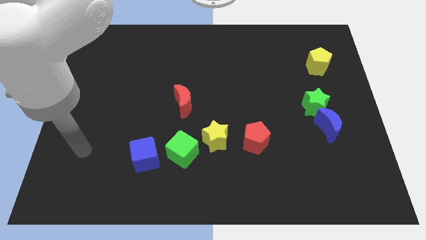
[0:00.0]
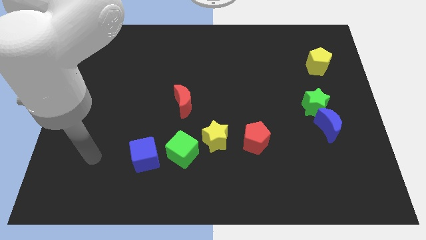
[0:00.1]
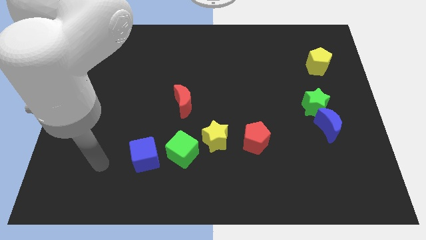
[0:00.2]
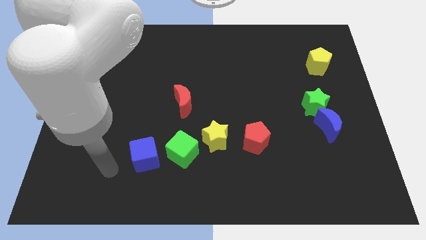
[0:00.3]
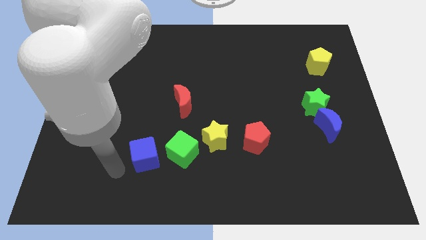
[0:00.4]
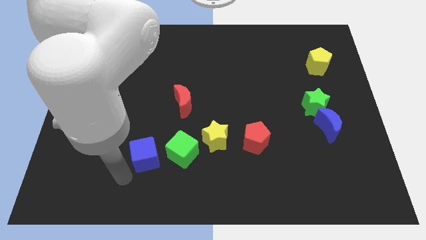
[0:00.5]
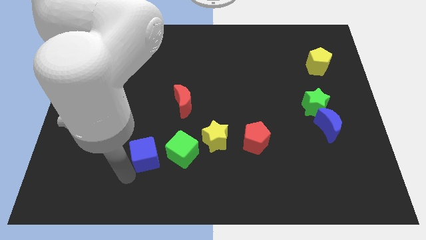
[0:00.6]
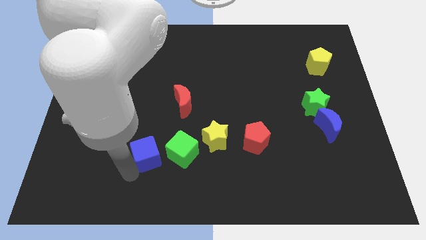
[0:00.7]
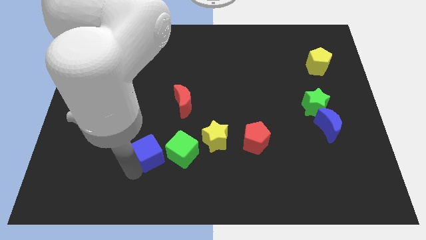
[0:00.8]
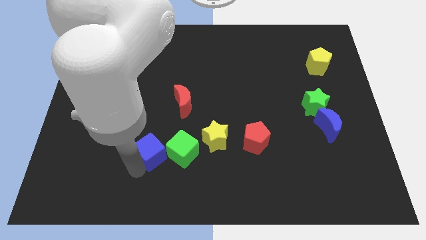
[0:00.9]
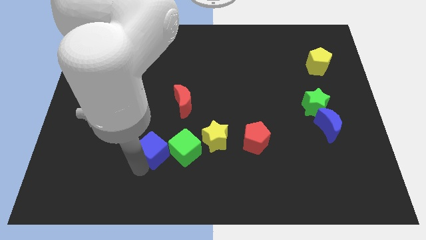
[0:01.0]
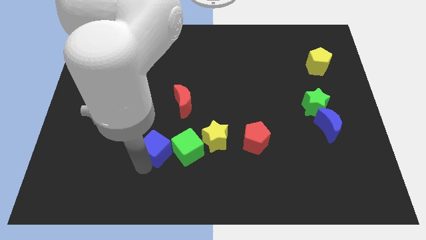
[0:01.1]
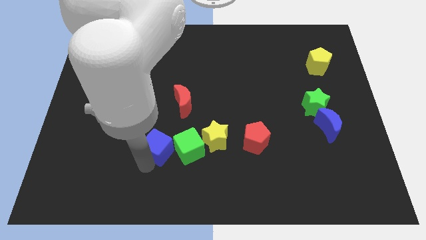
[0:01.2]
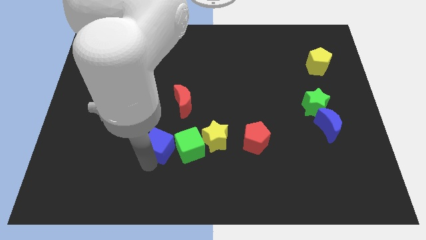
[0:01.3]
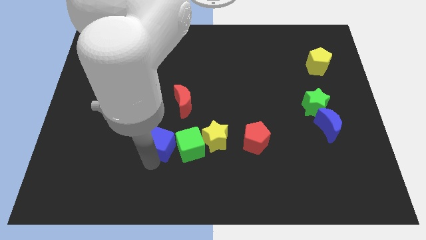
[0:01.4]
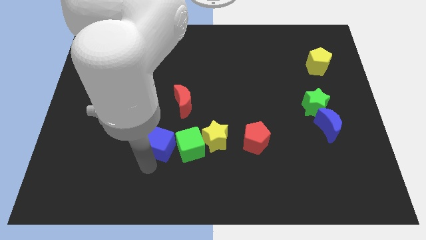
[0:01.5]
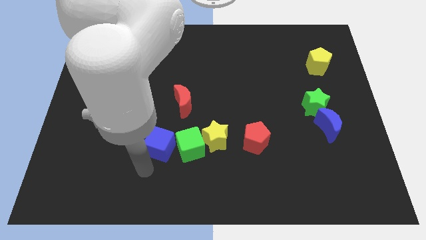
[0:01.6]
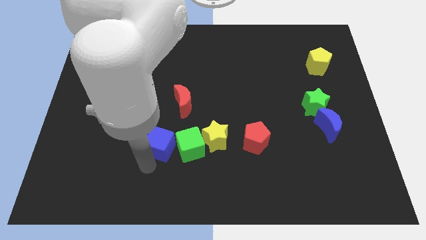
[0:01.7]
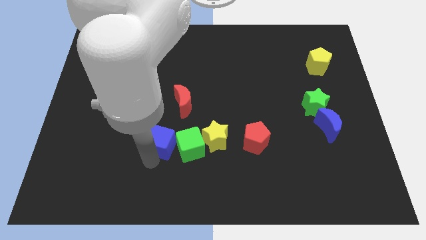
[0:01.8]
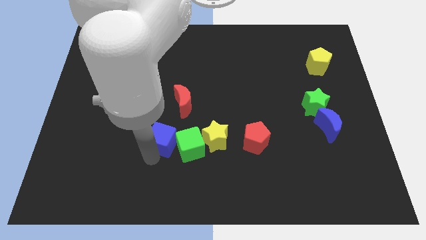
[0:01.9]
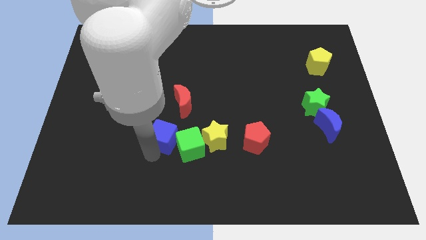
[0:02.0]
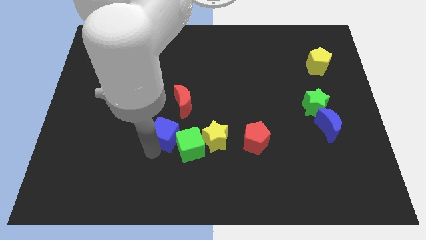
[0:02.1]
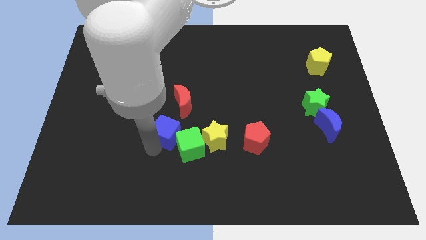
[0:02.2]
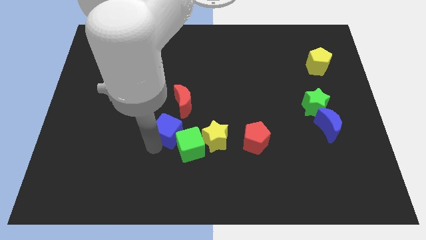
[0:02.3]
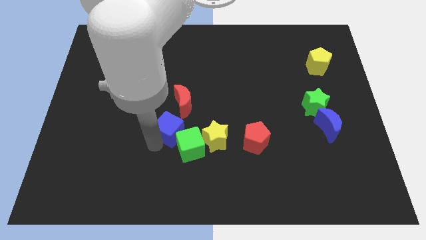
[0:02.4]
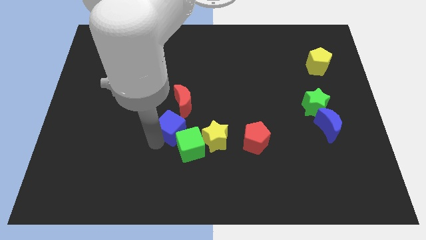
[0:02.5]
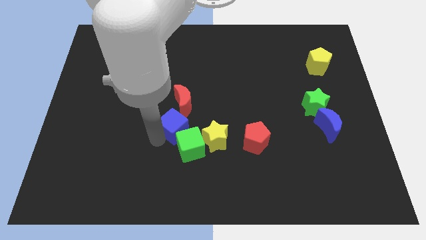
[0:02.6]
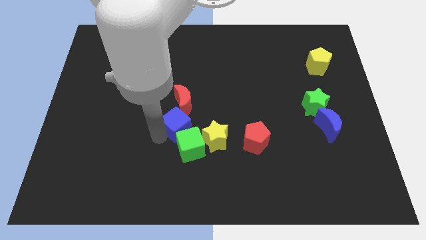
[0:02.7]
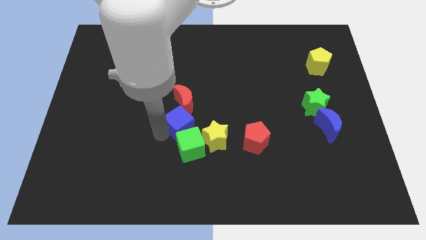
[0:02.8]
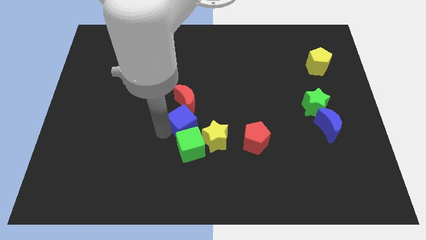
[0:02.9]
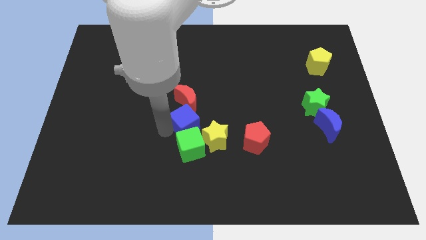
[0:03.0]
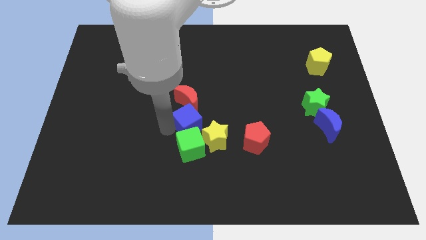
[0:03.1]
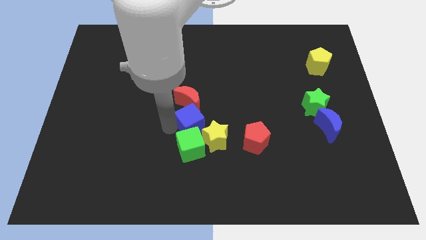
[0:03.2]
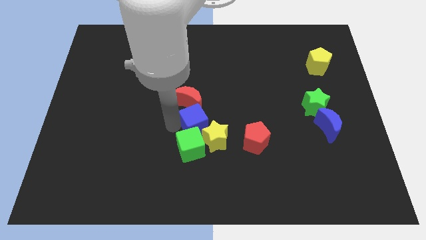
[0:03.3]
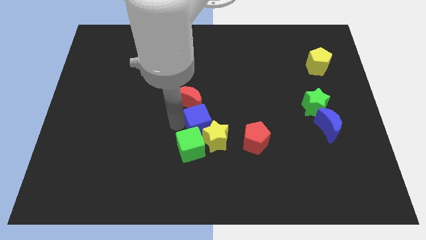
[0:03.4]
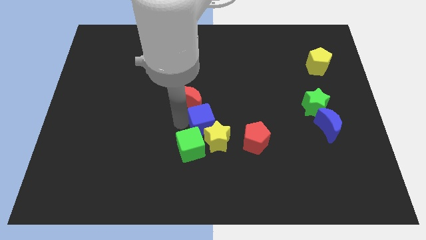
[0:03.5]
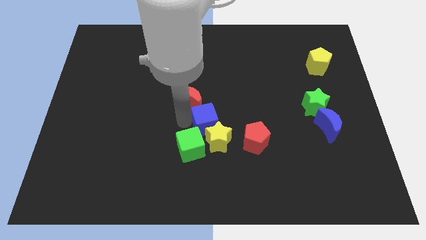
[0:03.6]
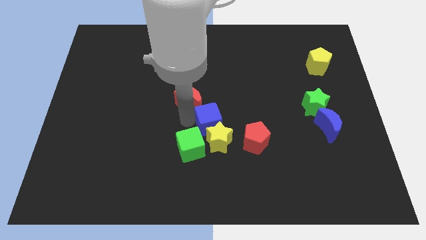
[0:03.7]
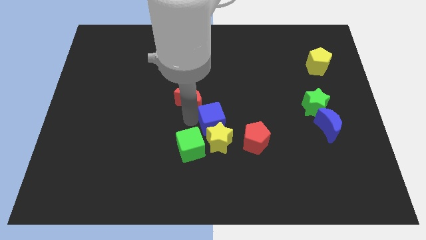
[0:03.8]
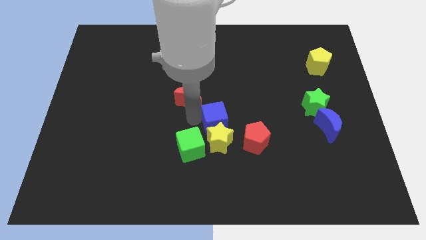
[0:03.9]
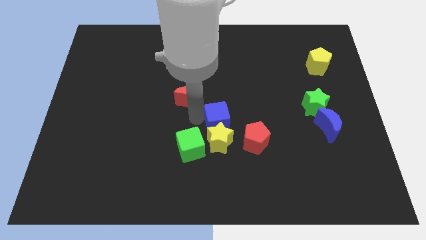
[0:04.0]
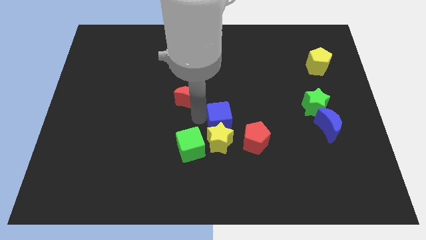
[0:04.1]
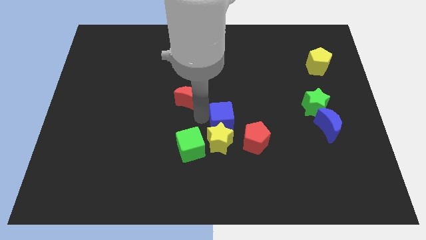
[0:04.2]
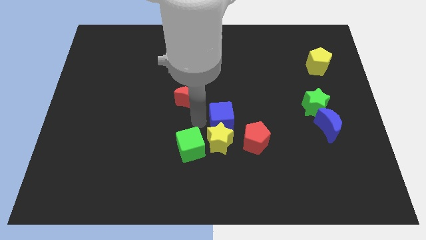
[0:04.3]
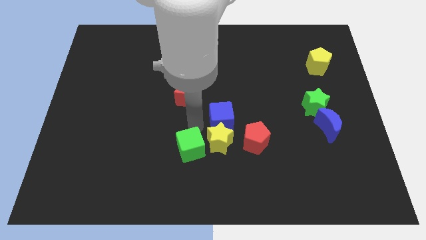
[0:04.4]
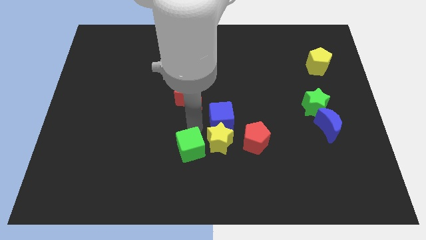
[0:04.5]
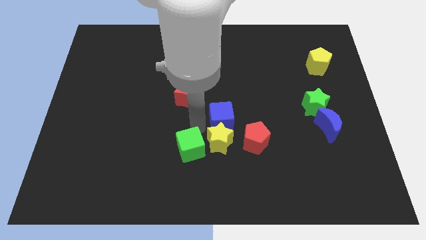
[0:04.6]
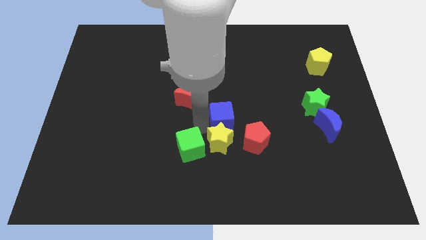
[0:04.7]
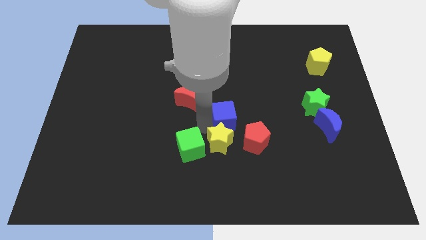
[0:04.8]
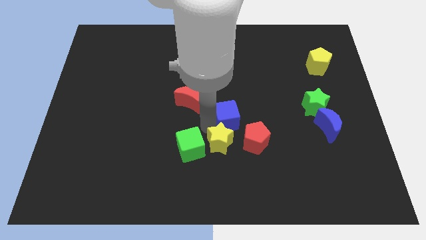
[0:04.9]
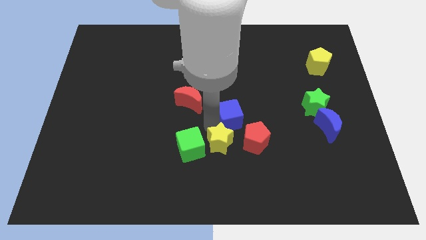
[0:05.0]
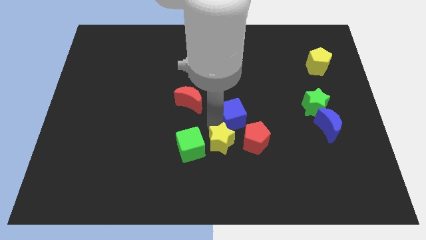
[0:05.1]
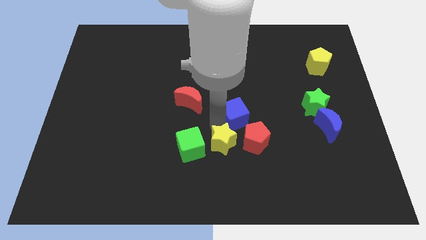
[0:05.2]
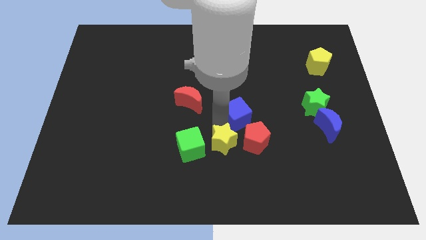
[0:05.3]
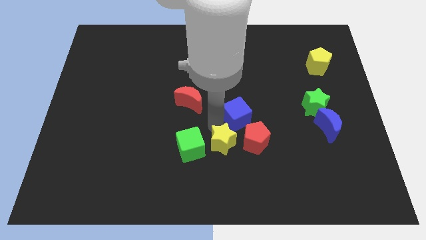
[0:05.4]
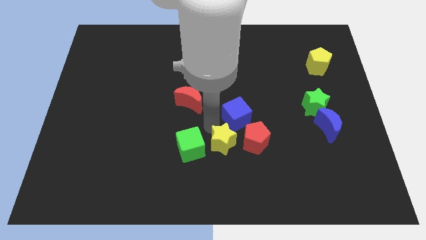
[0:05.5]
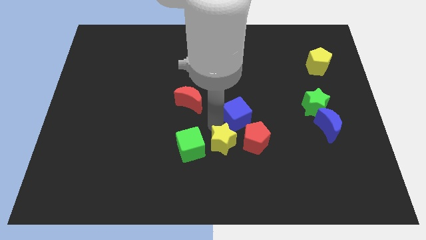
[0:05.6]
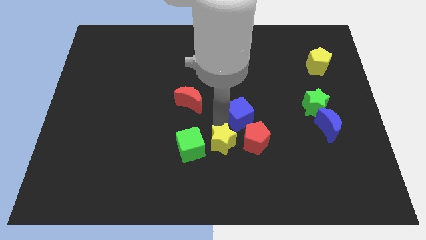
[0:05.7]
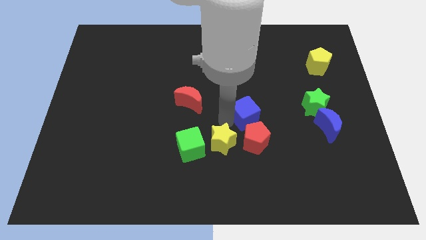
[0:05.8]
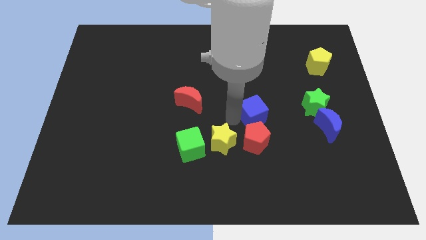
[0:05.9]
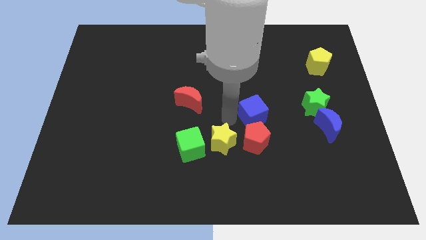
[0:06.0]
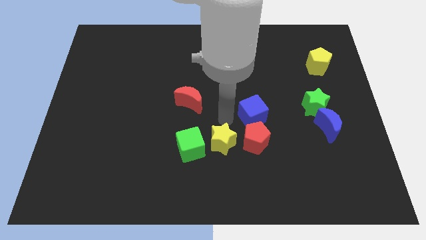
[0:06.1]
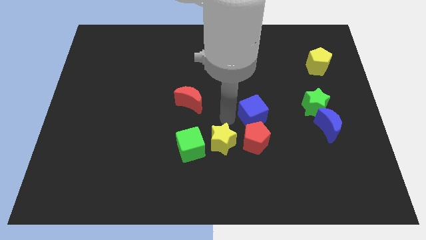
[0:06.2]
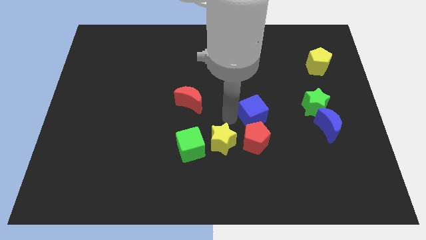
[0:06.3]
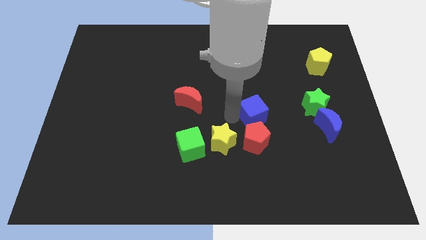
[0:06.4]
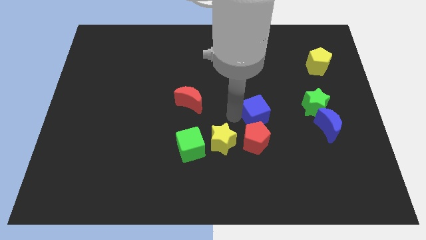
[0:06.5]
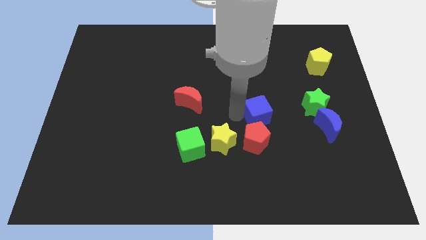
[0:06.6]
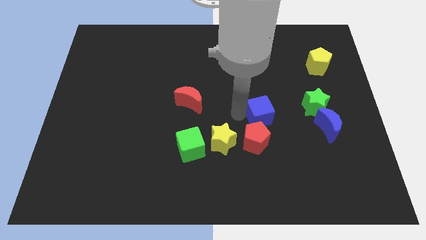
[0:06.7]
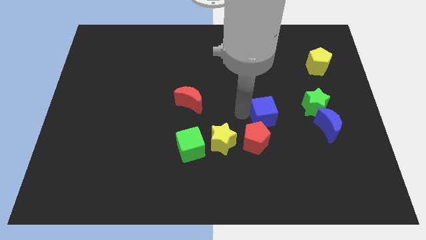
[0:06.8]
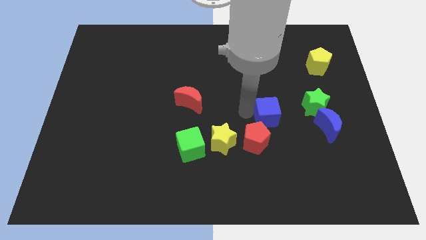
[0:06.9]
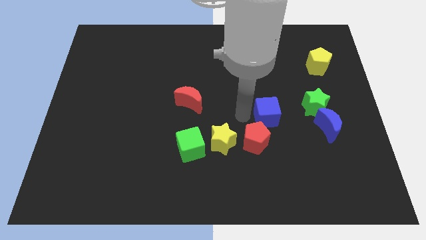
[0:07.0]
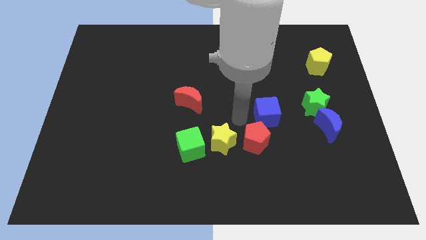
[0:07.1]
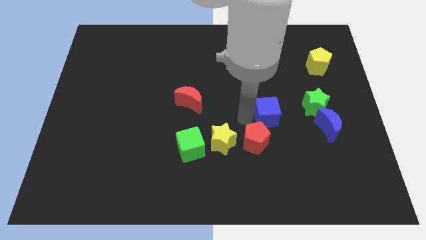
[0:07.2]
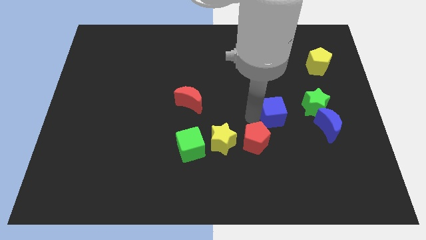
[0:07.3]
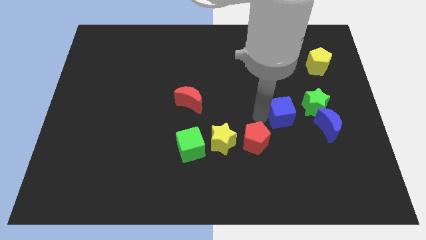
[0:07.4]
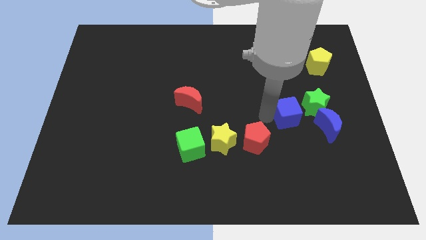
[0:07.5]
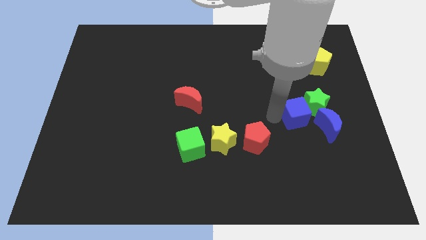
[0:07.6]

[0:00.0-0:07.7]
slide the blue cube towards the green star

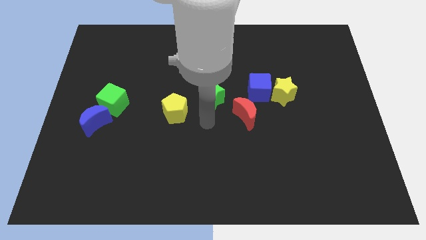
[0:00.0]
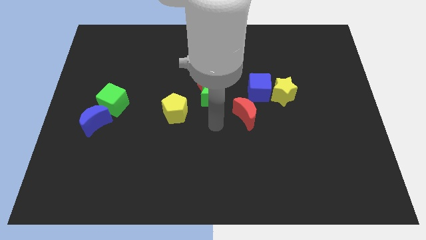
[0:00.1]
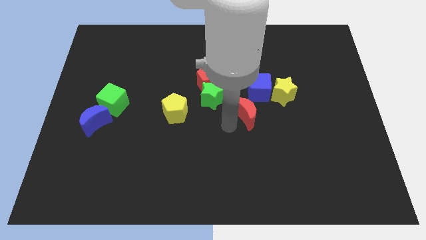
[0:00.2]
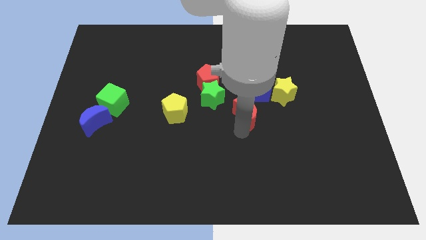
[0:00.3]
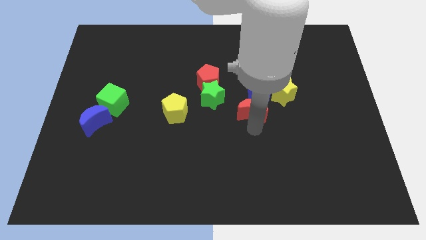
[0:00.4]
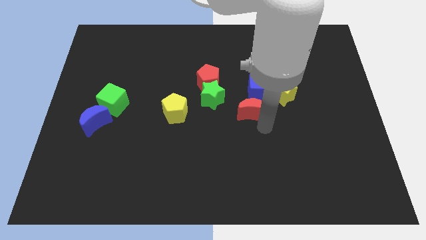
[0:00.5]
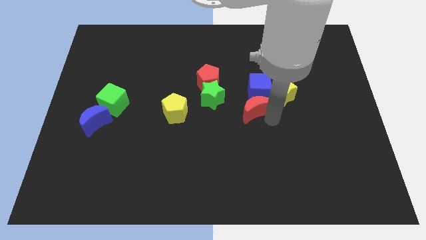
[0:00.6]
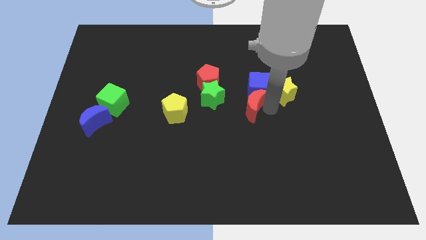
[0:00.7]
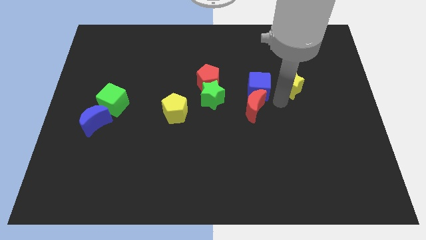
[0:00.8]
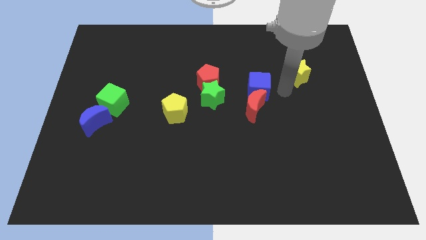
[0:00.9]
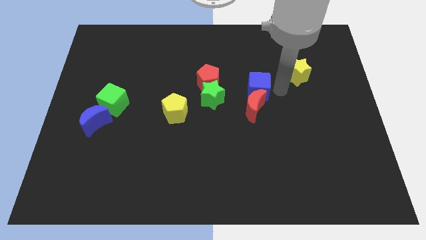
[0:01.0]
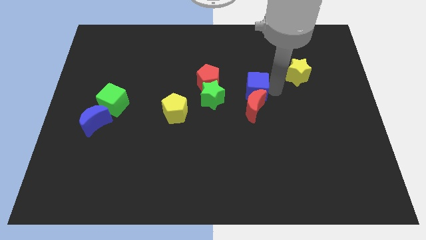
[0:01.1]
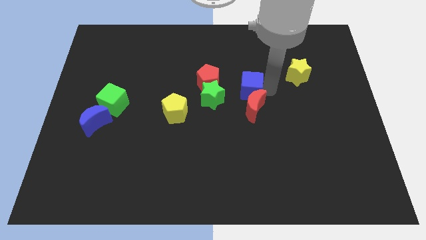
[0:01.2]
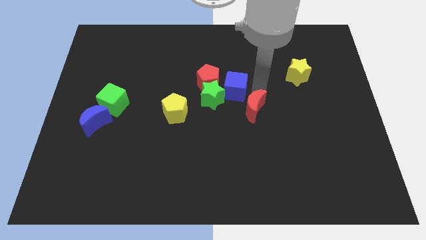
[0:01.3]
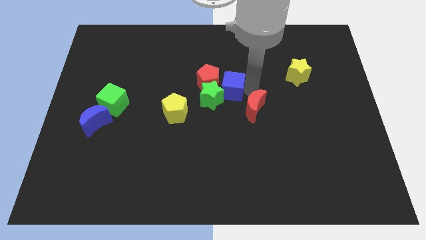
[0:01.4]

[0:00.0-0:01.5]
put the blue cube next to the red pentagon
